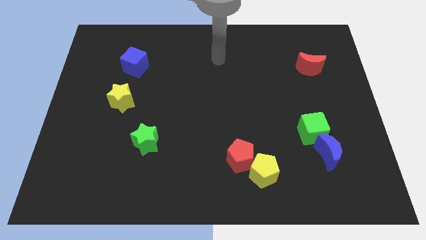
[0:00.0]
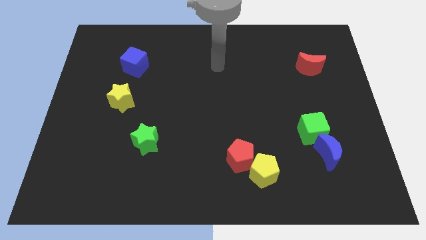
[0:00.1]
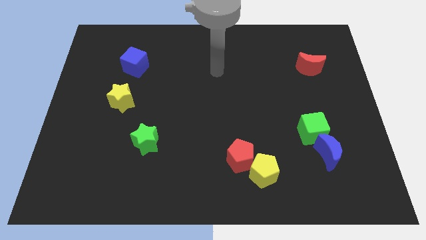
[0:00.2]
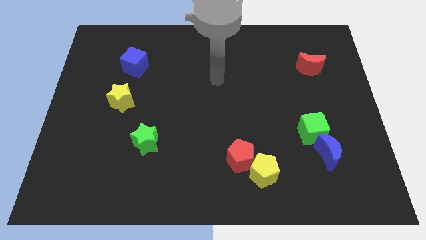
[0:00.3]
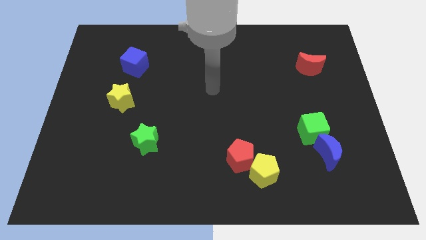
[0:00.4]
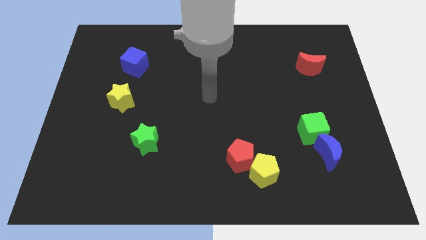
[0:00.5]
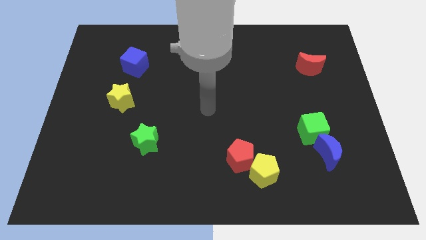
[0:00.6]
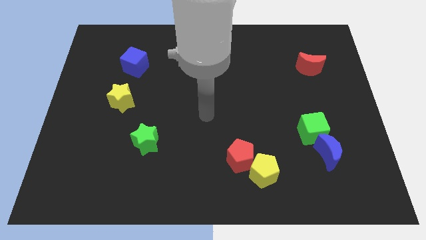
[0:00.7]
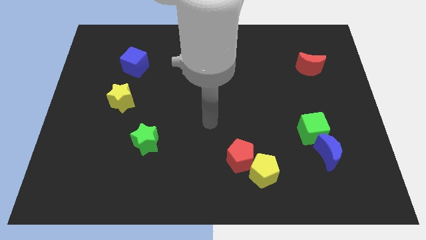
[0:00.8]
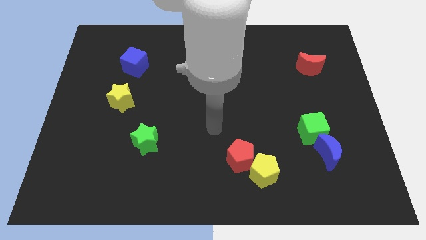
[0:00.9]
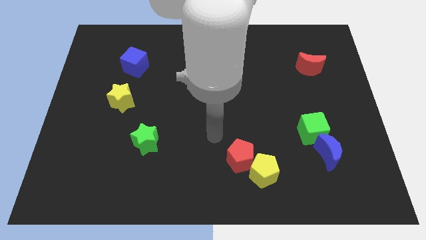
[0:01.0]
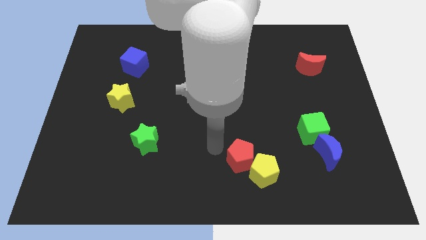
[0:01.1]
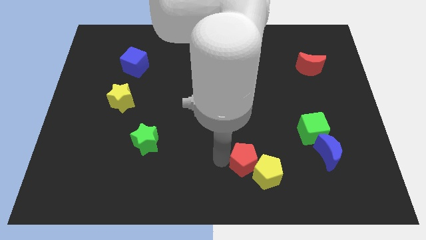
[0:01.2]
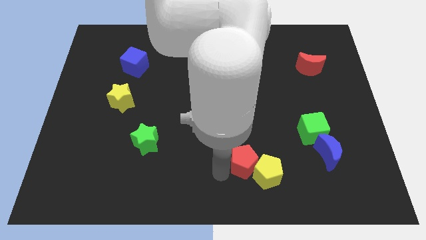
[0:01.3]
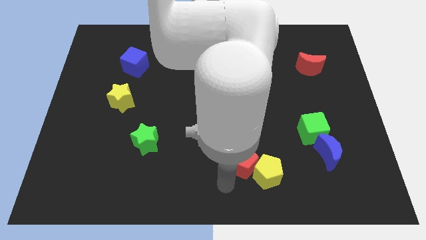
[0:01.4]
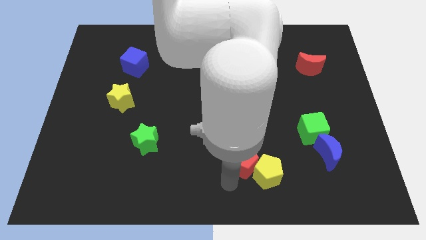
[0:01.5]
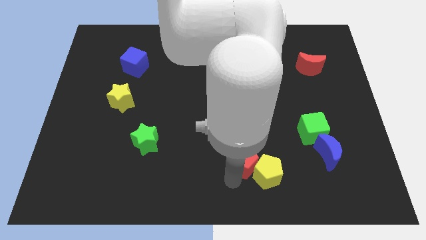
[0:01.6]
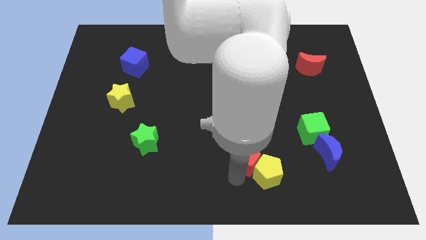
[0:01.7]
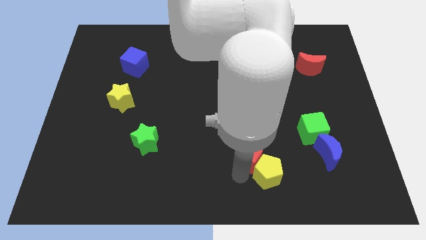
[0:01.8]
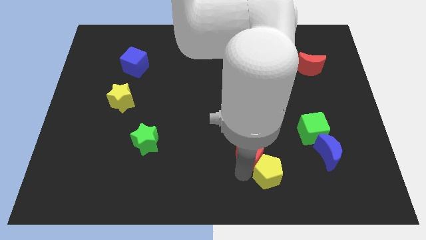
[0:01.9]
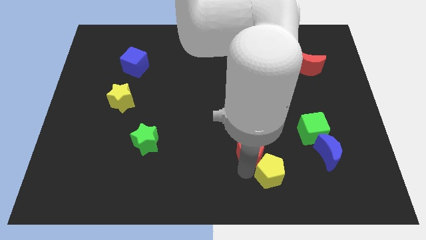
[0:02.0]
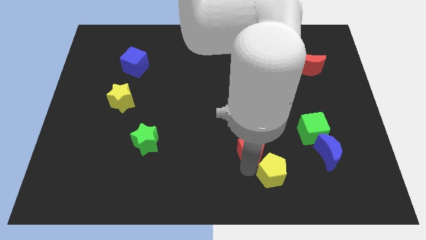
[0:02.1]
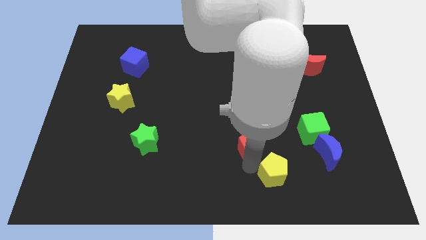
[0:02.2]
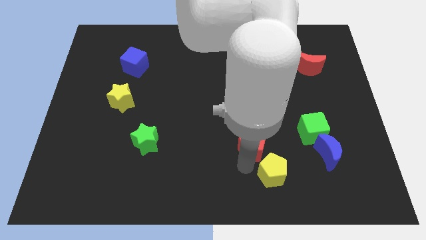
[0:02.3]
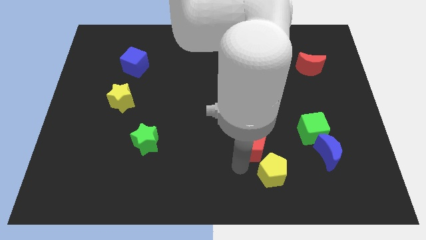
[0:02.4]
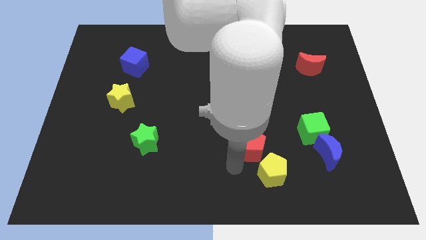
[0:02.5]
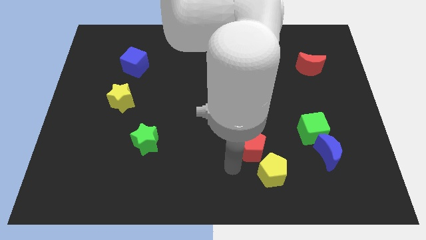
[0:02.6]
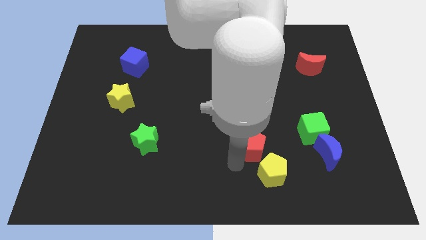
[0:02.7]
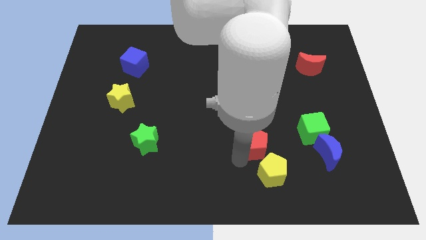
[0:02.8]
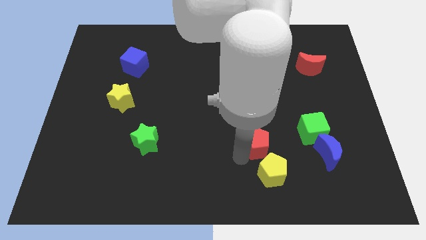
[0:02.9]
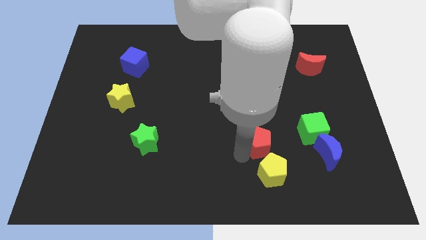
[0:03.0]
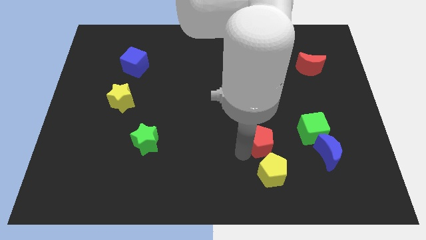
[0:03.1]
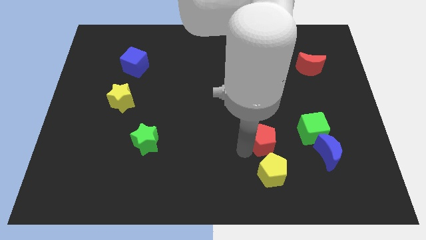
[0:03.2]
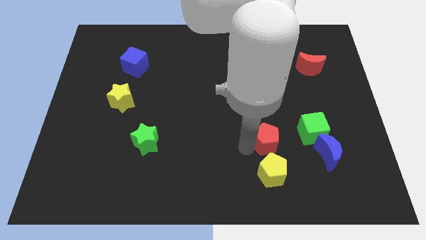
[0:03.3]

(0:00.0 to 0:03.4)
slightly push the red pentagon up and to the right

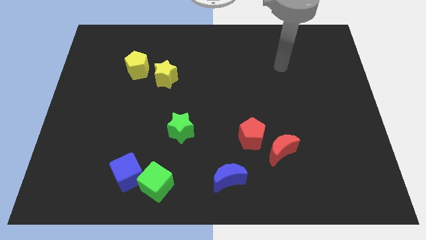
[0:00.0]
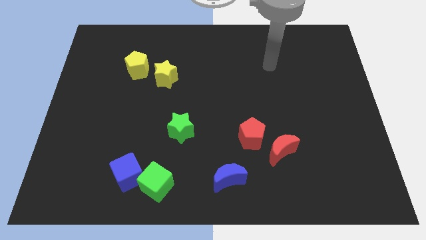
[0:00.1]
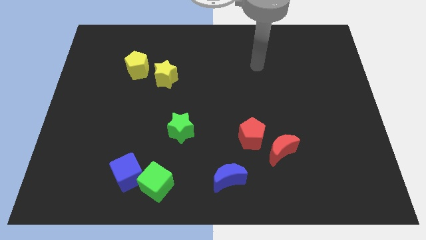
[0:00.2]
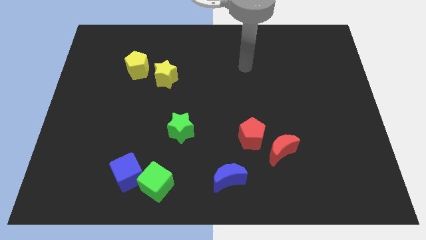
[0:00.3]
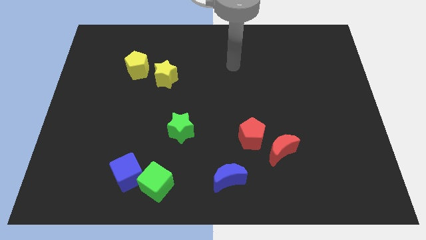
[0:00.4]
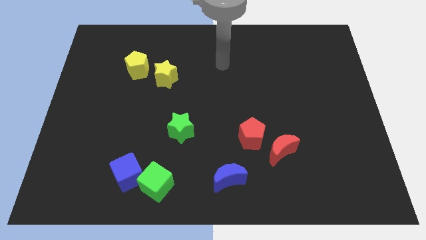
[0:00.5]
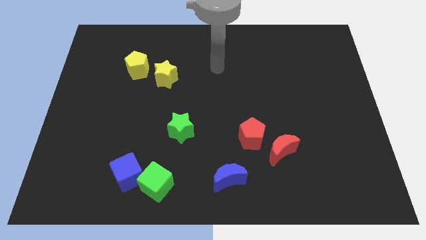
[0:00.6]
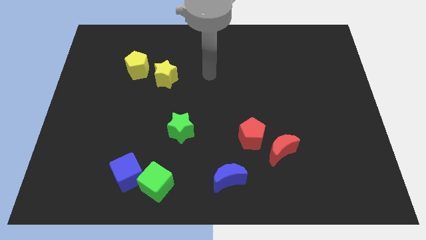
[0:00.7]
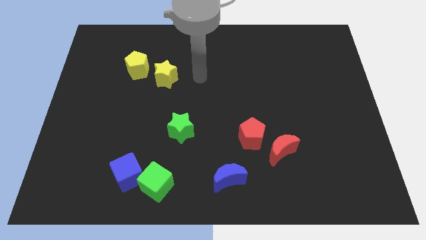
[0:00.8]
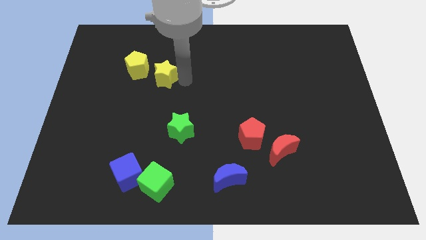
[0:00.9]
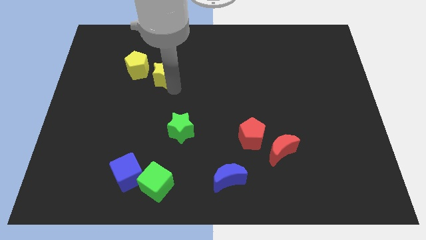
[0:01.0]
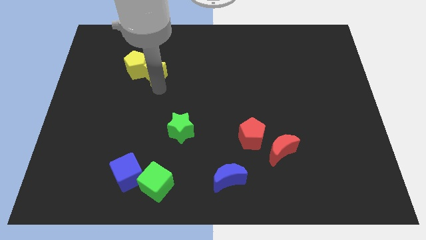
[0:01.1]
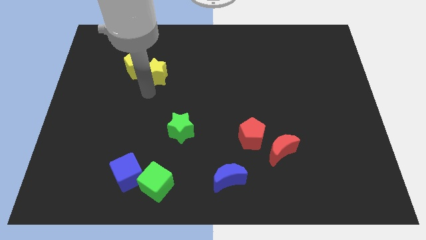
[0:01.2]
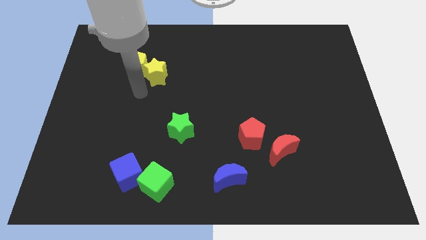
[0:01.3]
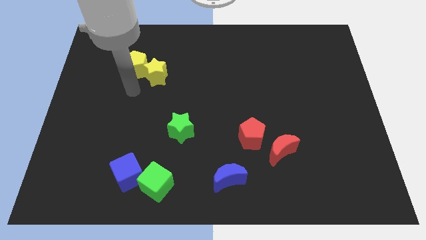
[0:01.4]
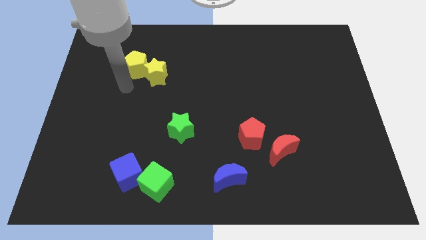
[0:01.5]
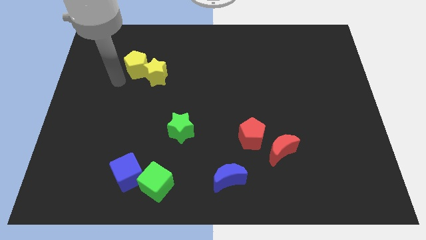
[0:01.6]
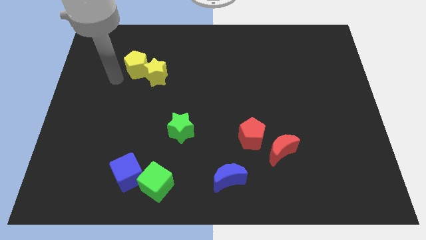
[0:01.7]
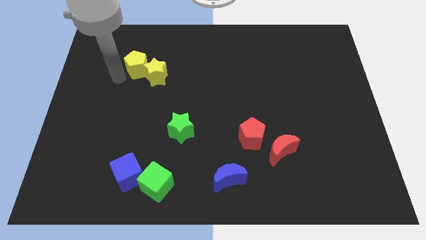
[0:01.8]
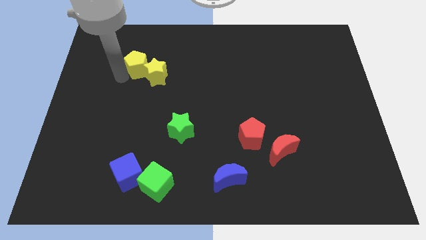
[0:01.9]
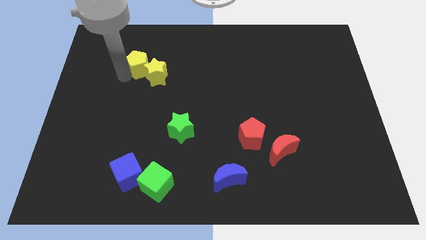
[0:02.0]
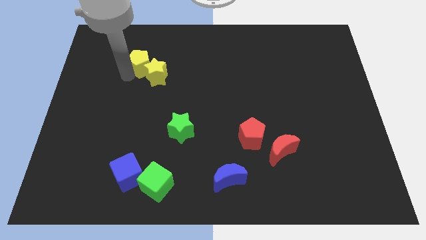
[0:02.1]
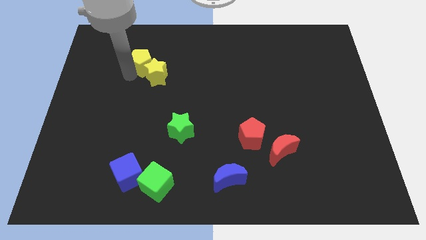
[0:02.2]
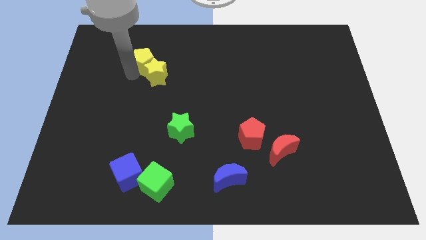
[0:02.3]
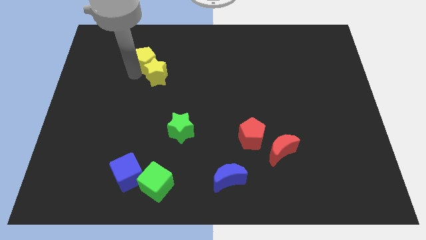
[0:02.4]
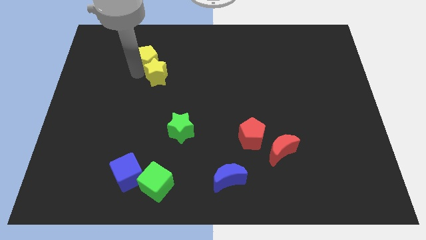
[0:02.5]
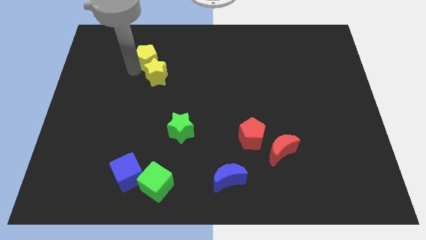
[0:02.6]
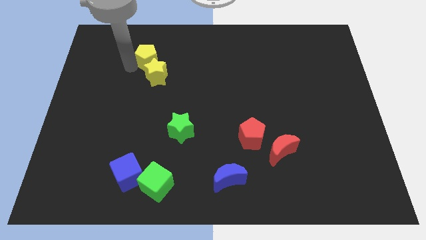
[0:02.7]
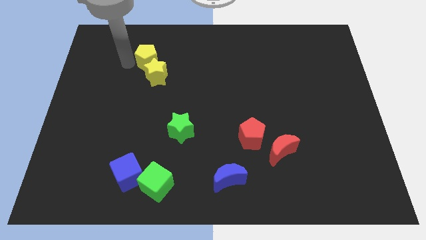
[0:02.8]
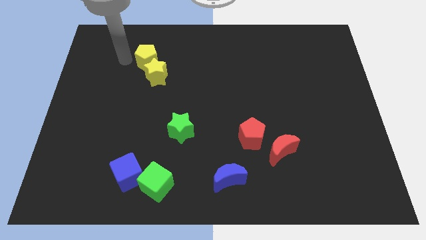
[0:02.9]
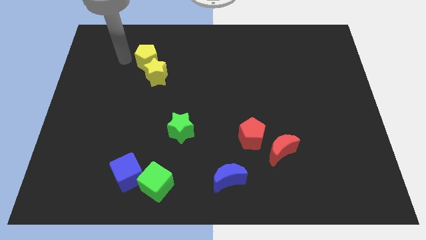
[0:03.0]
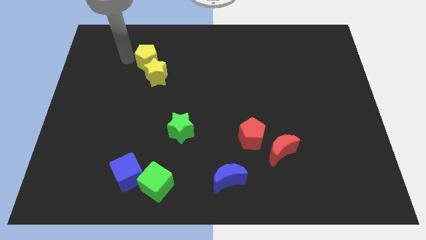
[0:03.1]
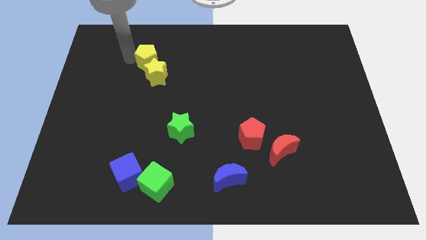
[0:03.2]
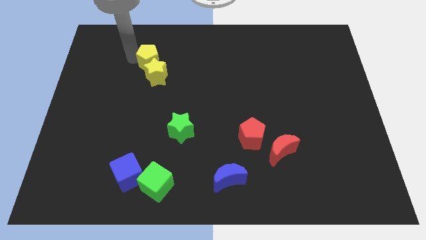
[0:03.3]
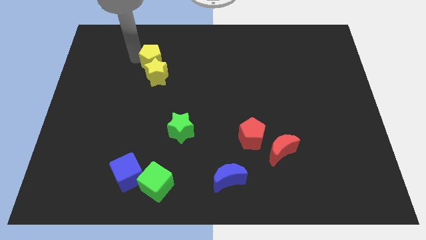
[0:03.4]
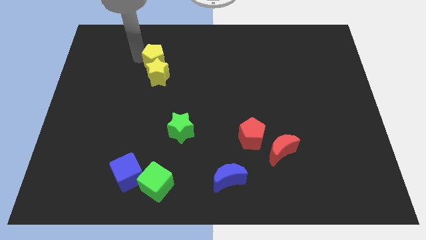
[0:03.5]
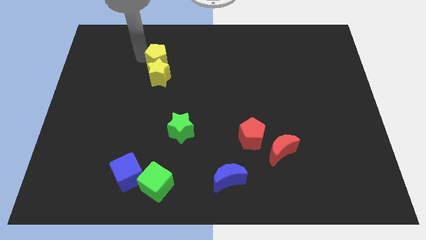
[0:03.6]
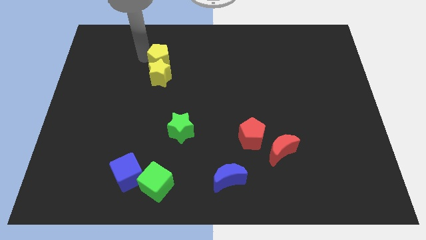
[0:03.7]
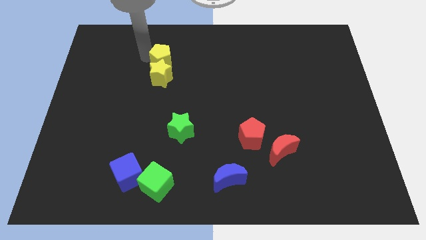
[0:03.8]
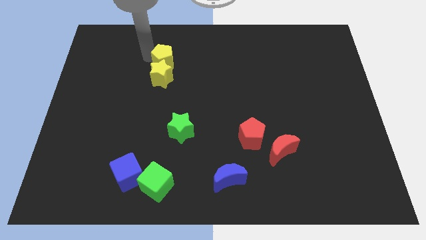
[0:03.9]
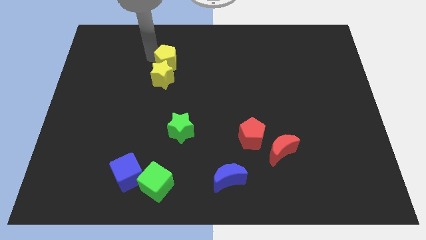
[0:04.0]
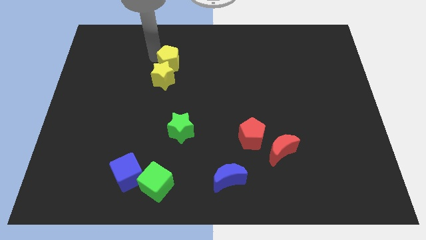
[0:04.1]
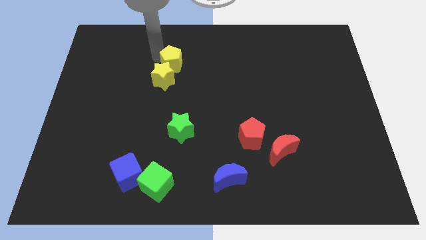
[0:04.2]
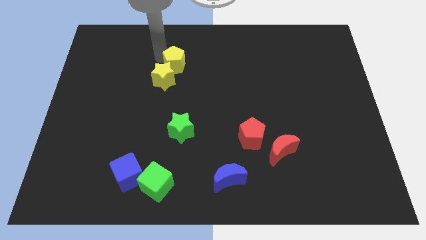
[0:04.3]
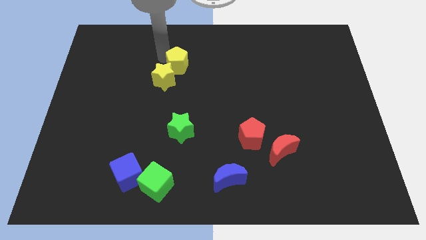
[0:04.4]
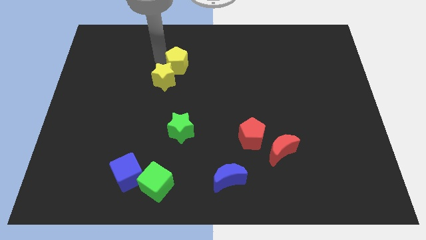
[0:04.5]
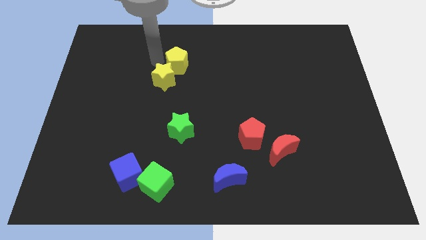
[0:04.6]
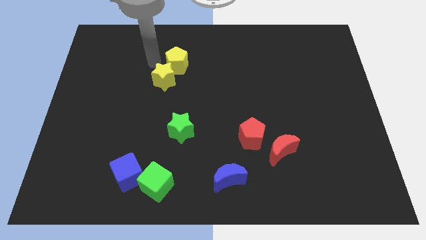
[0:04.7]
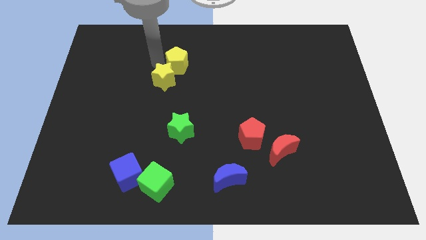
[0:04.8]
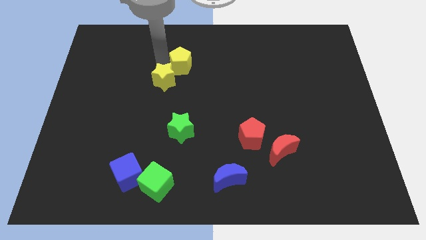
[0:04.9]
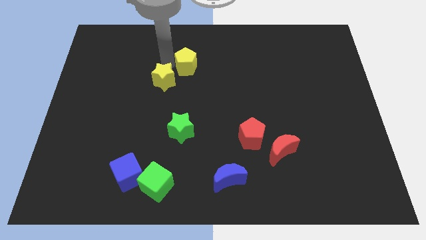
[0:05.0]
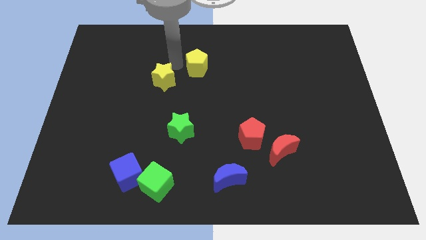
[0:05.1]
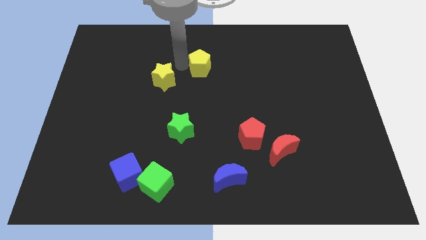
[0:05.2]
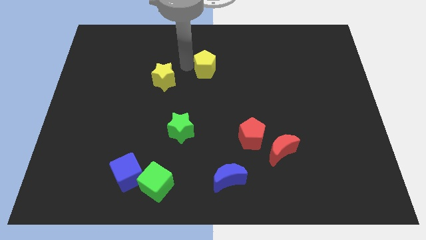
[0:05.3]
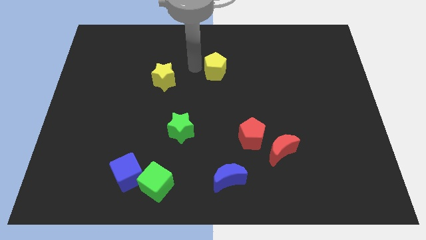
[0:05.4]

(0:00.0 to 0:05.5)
slide the yellow pentagon to the right
